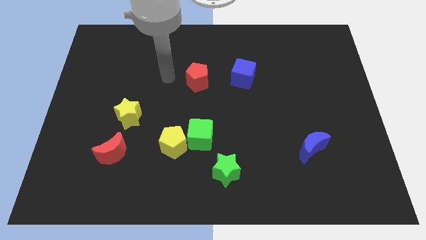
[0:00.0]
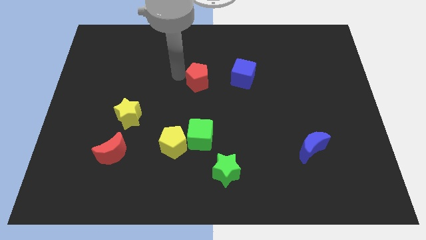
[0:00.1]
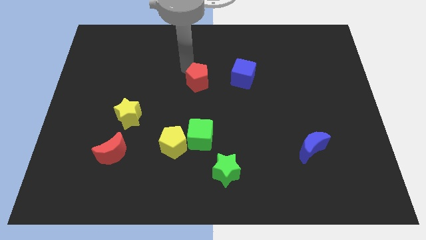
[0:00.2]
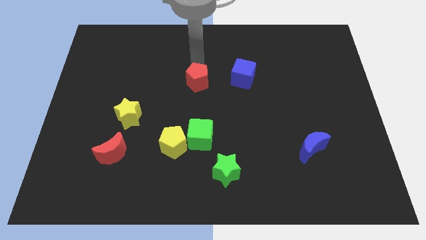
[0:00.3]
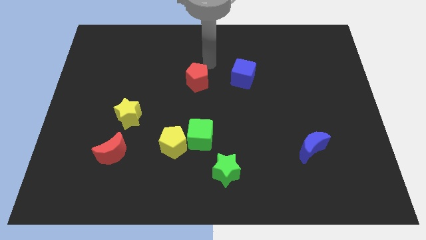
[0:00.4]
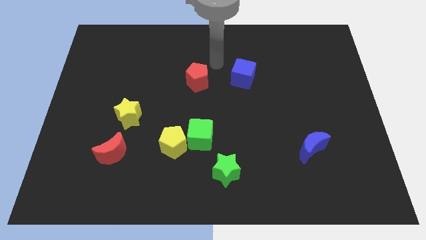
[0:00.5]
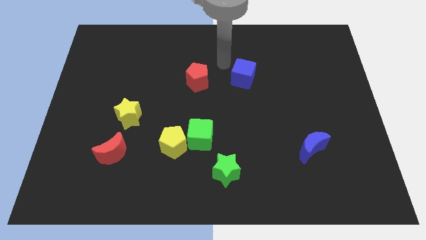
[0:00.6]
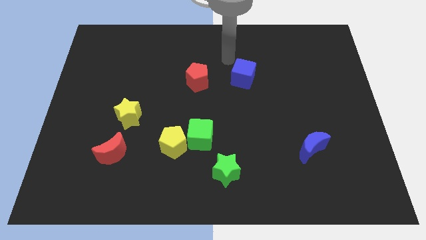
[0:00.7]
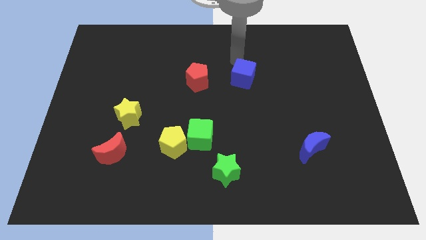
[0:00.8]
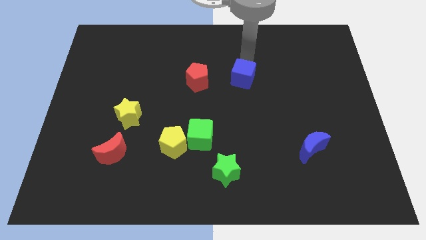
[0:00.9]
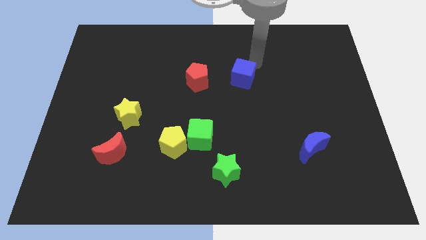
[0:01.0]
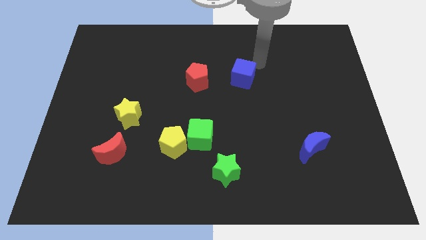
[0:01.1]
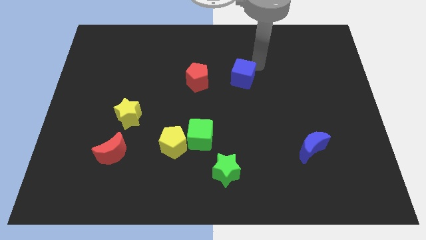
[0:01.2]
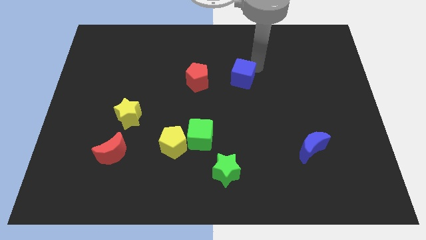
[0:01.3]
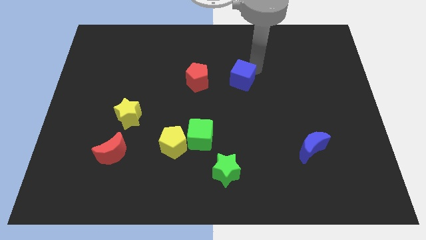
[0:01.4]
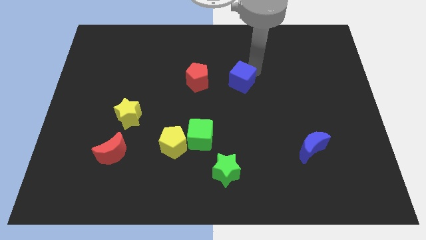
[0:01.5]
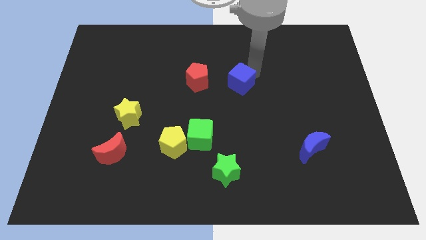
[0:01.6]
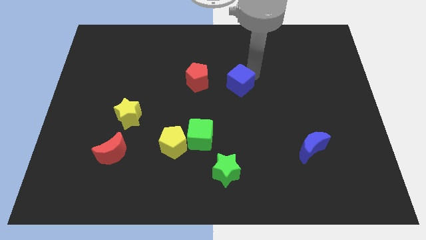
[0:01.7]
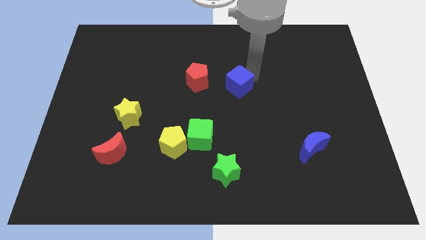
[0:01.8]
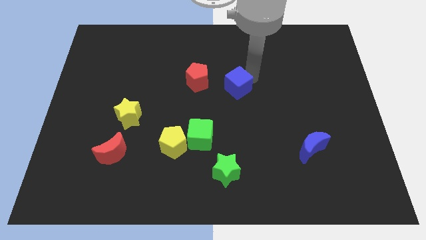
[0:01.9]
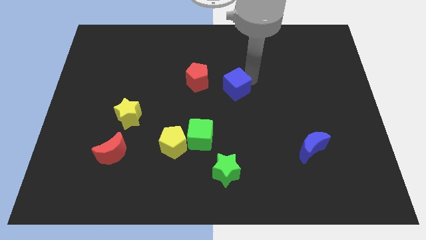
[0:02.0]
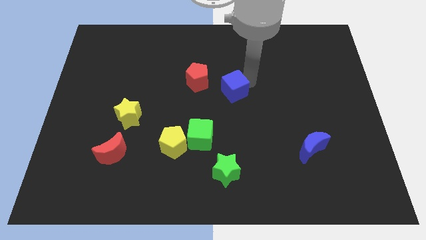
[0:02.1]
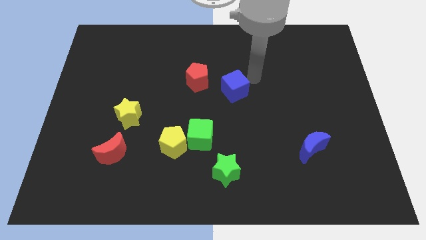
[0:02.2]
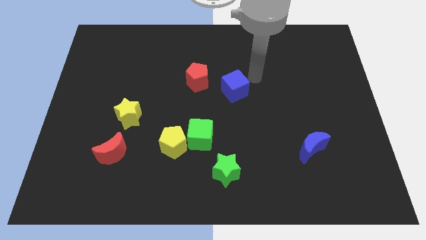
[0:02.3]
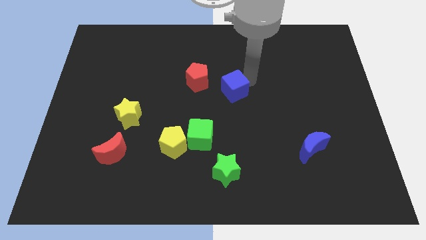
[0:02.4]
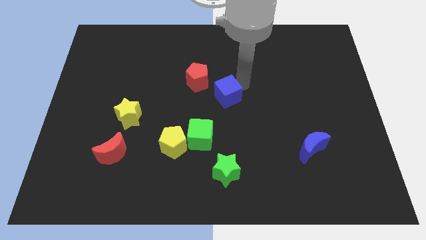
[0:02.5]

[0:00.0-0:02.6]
slide the blue cube downwards and then left slightly

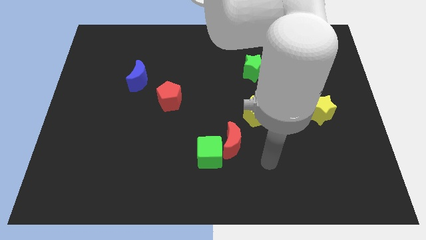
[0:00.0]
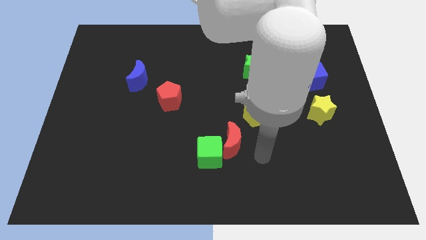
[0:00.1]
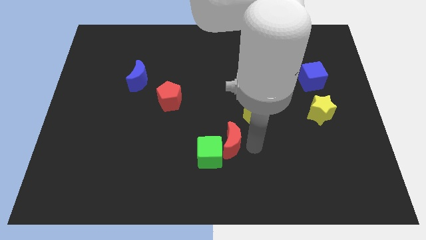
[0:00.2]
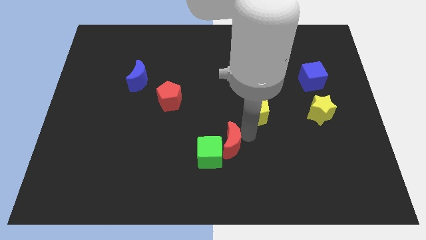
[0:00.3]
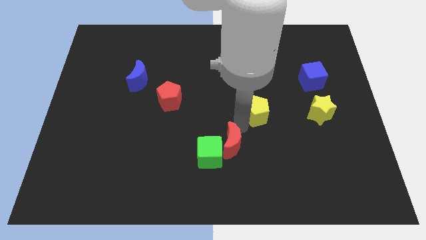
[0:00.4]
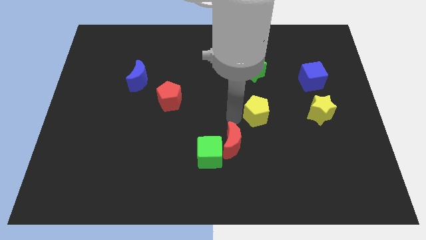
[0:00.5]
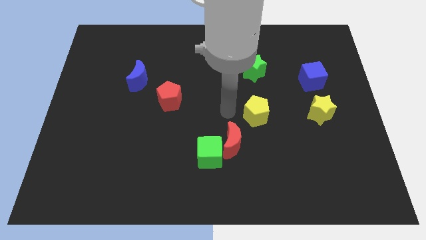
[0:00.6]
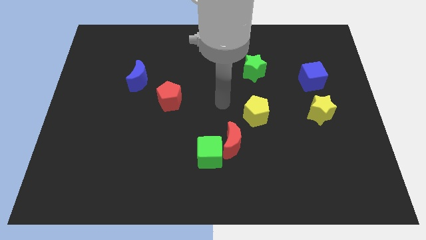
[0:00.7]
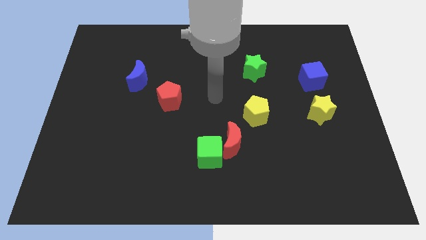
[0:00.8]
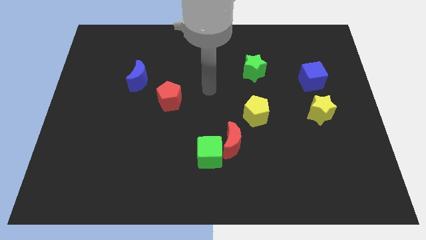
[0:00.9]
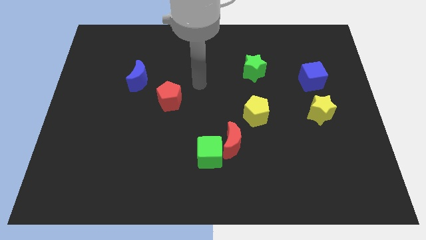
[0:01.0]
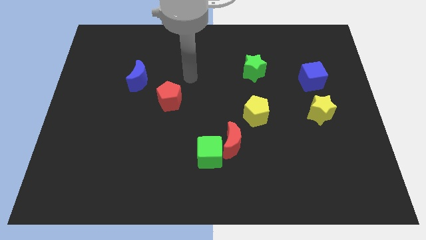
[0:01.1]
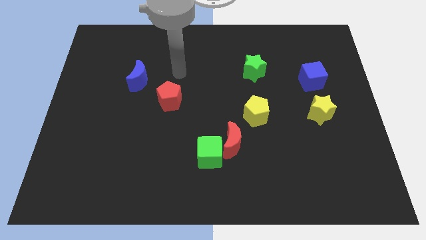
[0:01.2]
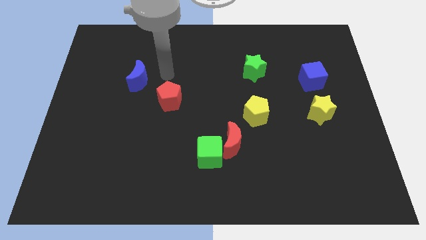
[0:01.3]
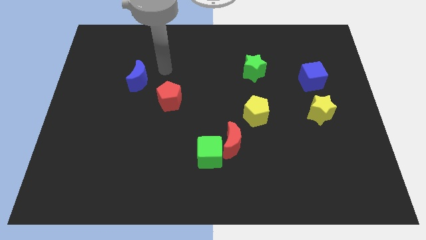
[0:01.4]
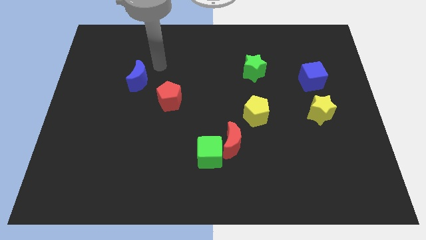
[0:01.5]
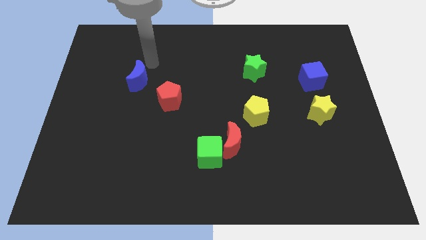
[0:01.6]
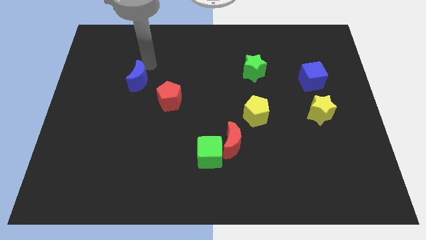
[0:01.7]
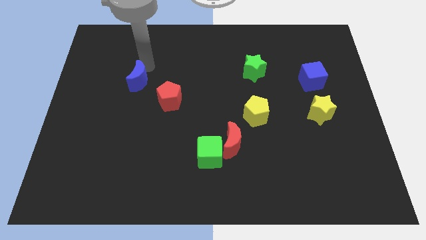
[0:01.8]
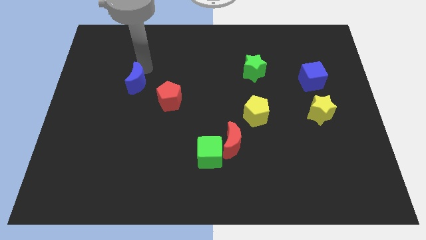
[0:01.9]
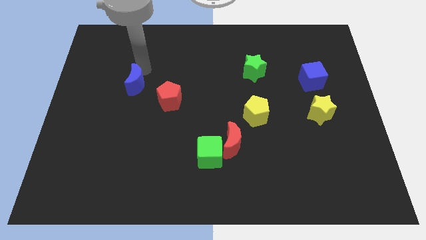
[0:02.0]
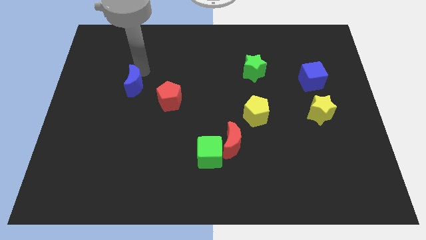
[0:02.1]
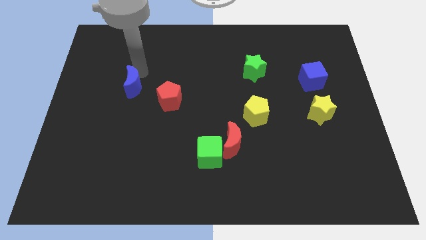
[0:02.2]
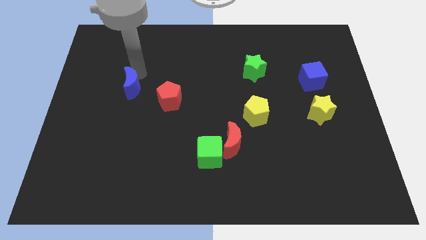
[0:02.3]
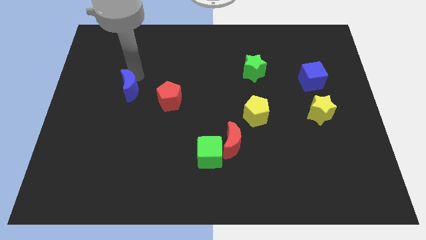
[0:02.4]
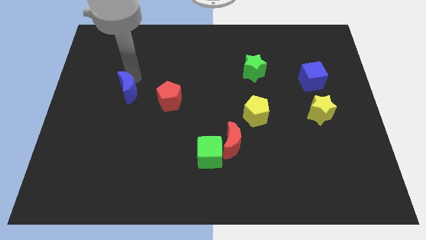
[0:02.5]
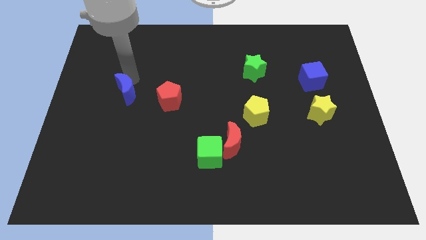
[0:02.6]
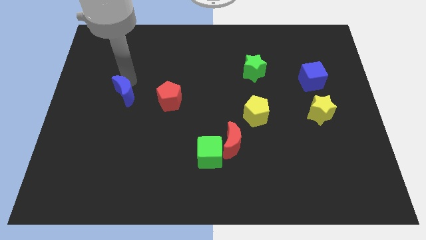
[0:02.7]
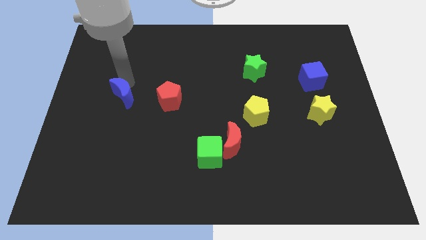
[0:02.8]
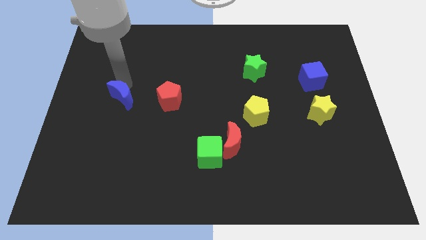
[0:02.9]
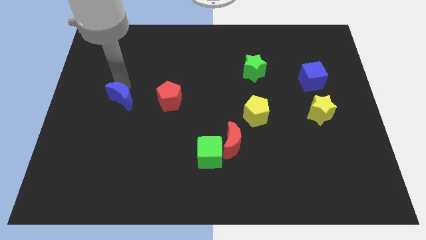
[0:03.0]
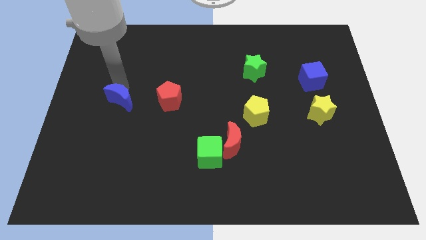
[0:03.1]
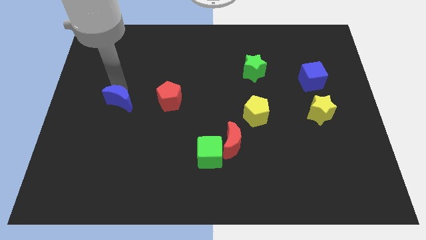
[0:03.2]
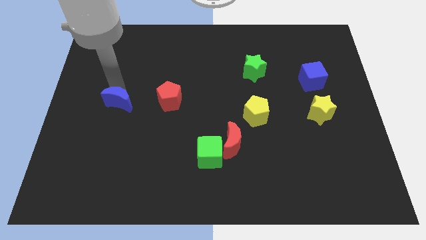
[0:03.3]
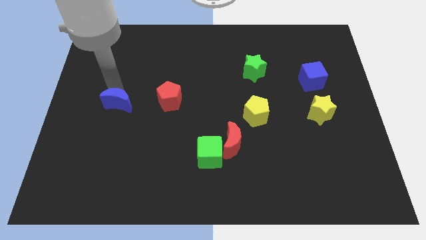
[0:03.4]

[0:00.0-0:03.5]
slide the blue moon a little down

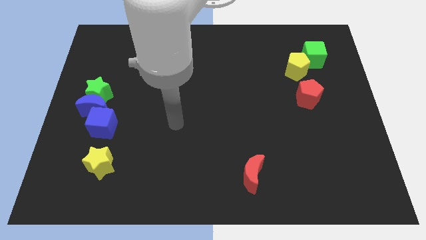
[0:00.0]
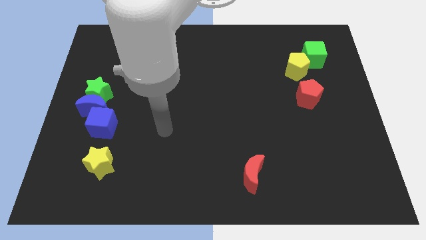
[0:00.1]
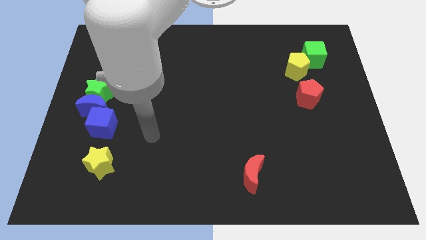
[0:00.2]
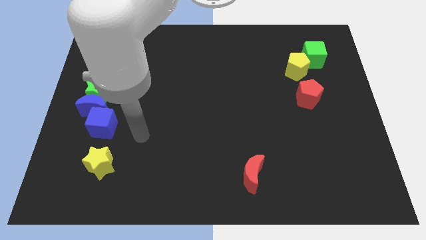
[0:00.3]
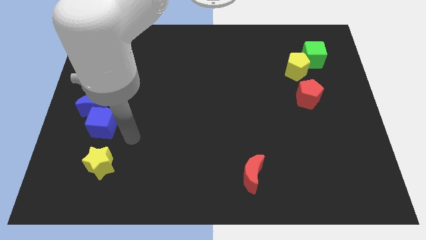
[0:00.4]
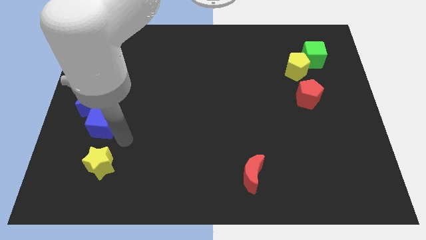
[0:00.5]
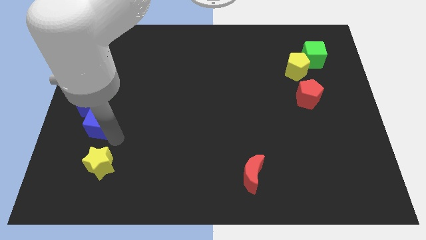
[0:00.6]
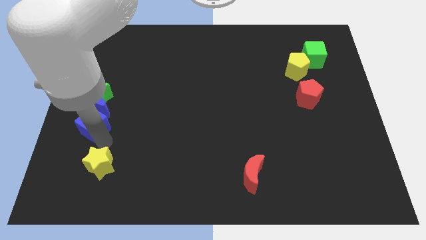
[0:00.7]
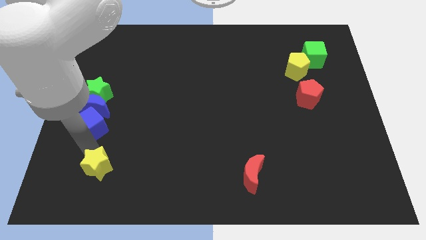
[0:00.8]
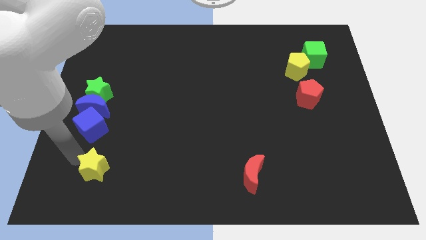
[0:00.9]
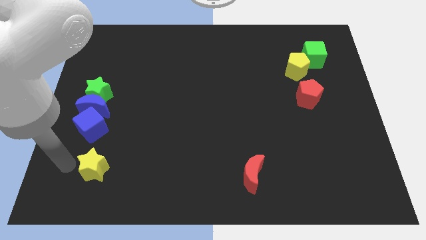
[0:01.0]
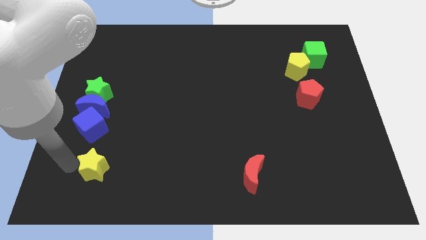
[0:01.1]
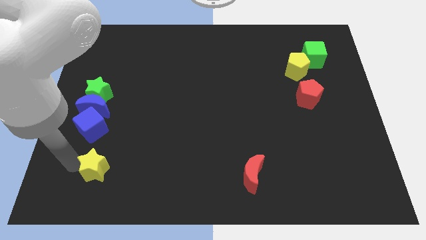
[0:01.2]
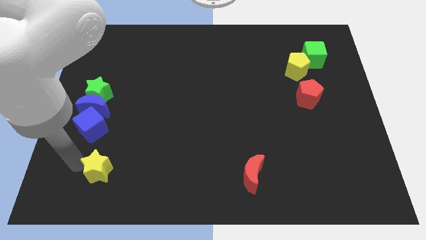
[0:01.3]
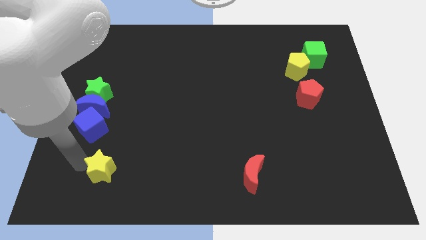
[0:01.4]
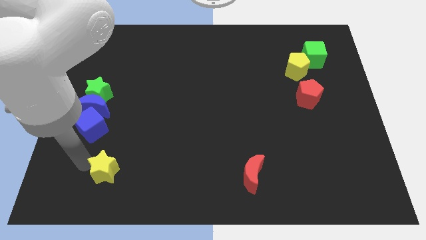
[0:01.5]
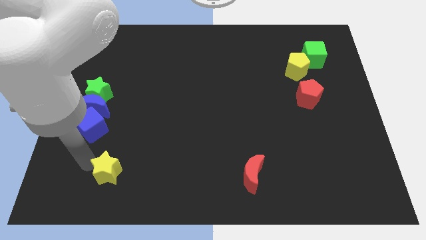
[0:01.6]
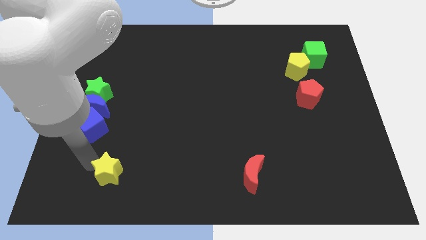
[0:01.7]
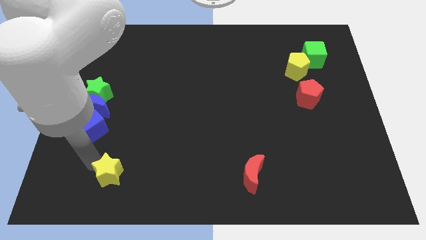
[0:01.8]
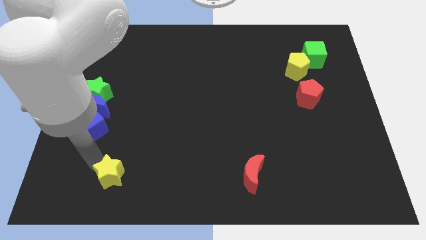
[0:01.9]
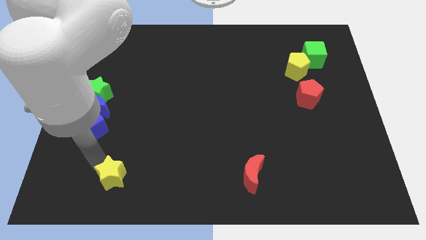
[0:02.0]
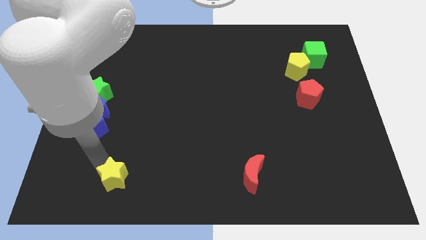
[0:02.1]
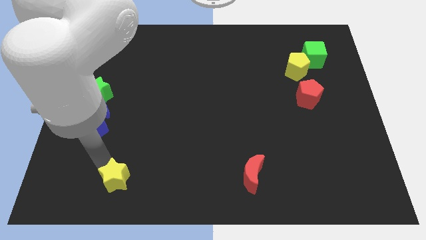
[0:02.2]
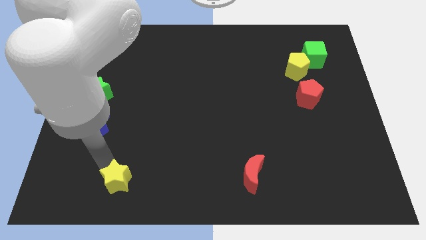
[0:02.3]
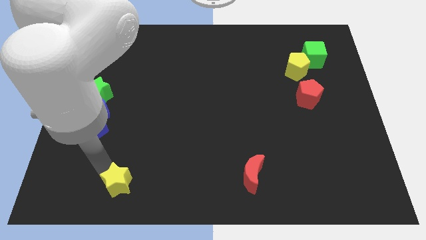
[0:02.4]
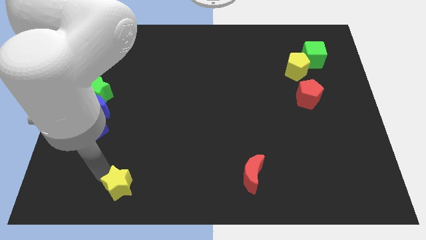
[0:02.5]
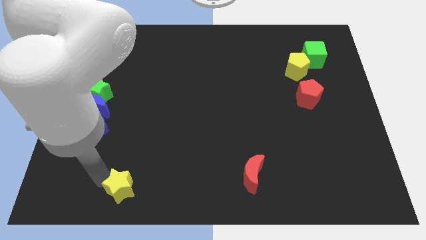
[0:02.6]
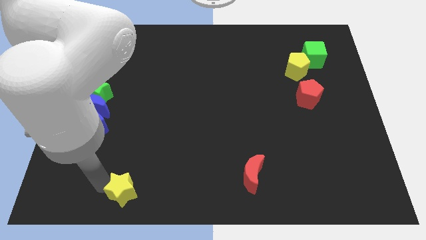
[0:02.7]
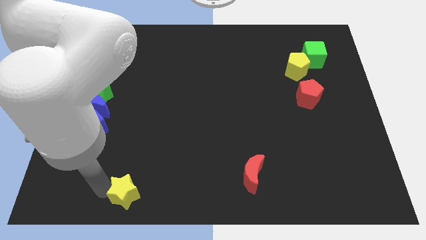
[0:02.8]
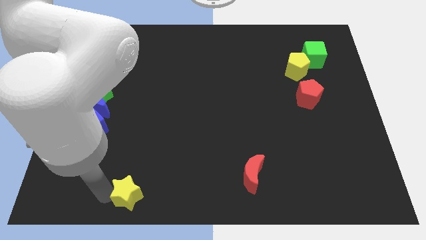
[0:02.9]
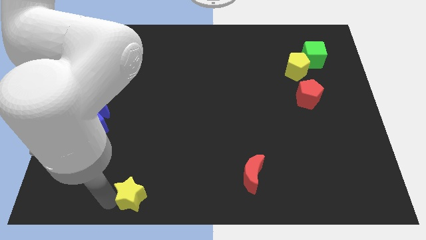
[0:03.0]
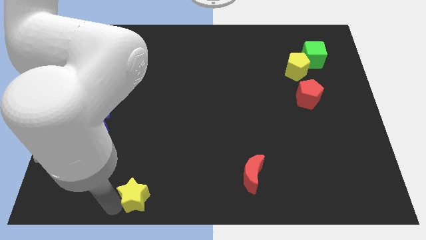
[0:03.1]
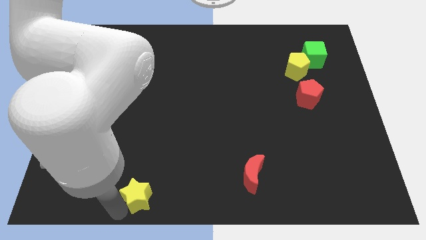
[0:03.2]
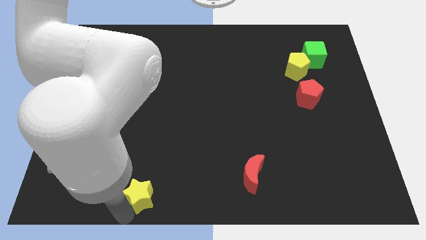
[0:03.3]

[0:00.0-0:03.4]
slightly slide the yellow star right
